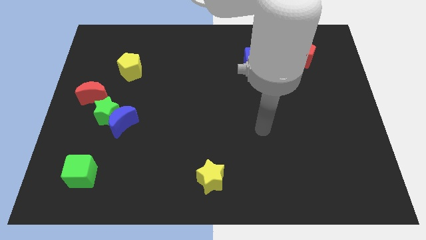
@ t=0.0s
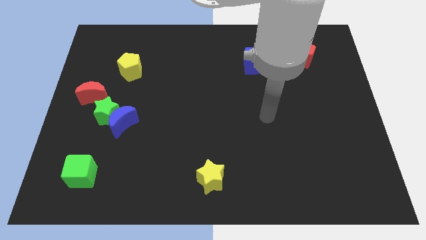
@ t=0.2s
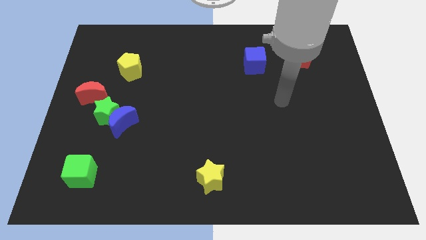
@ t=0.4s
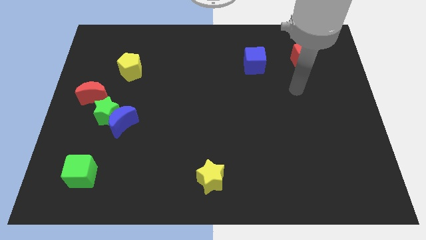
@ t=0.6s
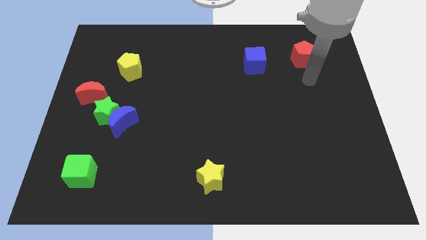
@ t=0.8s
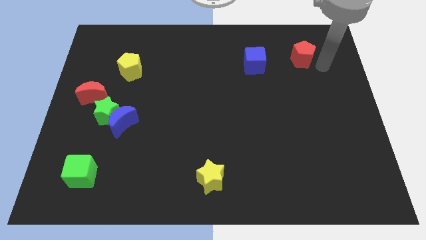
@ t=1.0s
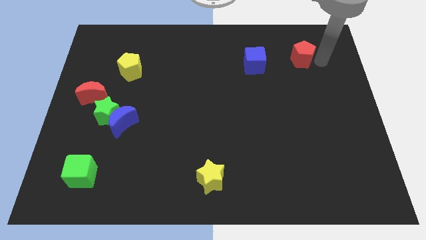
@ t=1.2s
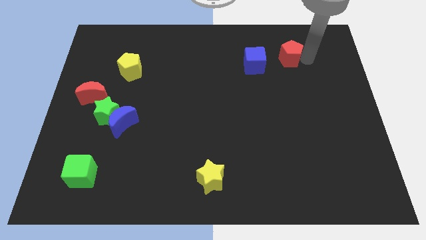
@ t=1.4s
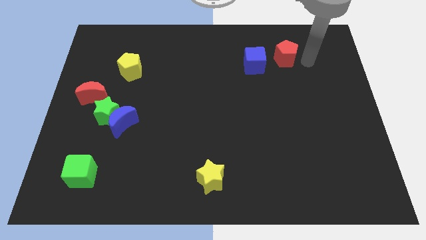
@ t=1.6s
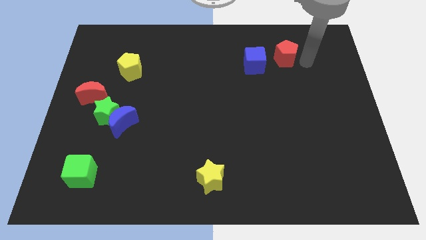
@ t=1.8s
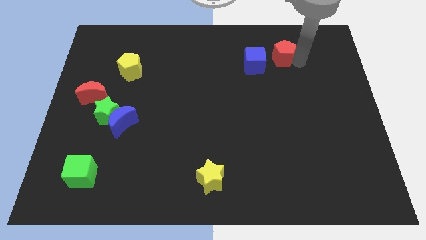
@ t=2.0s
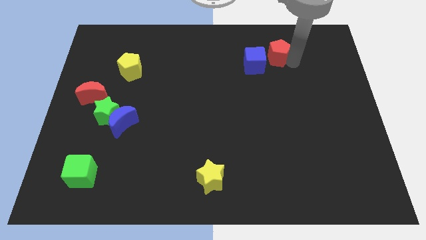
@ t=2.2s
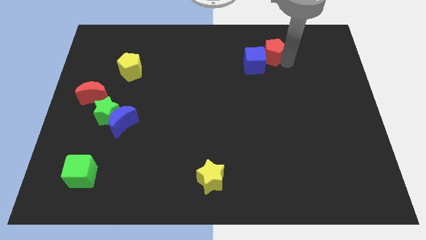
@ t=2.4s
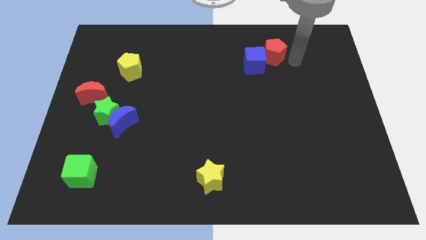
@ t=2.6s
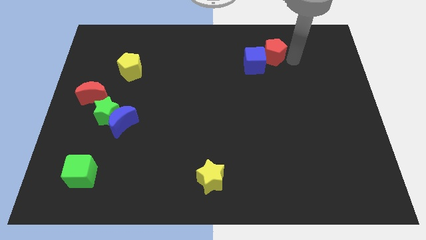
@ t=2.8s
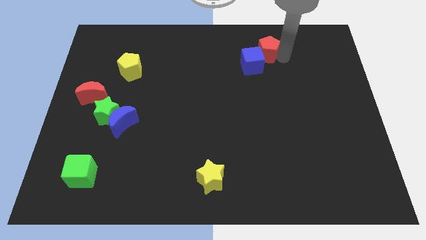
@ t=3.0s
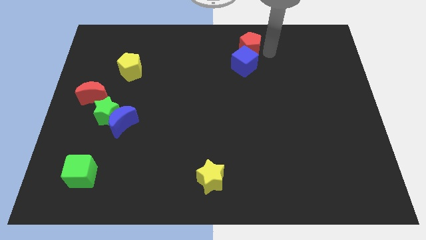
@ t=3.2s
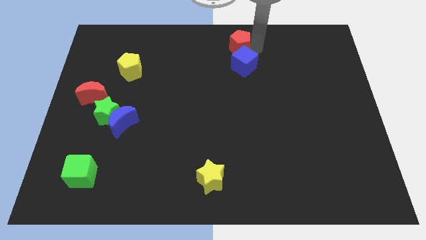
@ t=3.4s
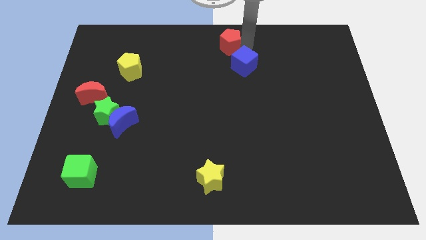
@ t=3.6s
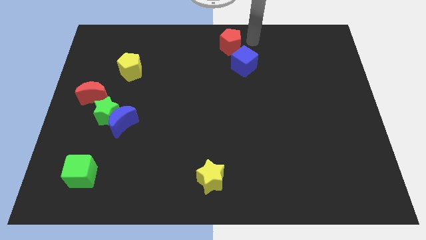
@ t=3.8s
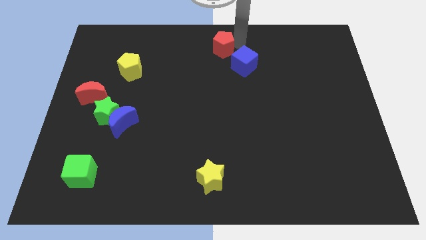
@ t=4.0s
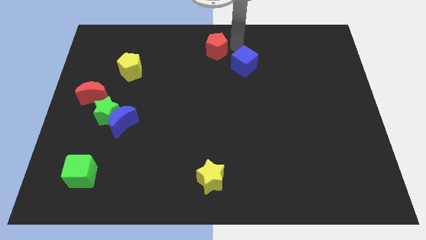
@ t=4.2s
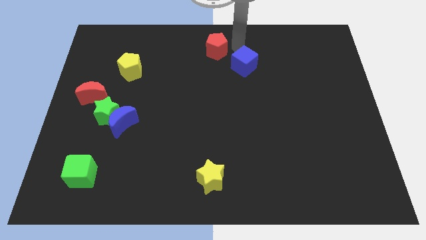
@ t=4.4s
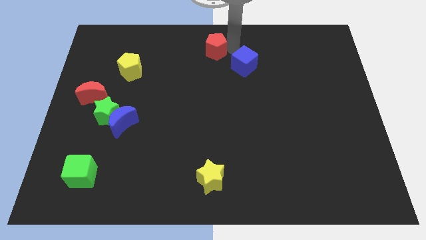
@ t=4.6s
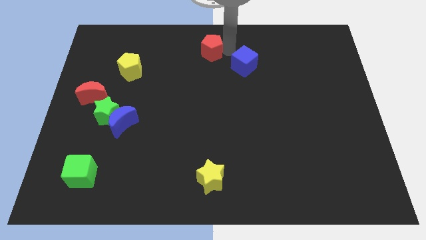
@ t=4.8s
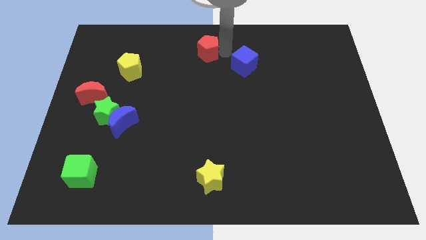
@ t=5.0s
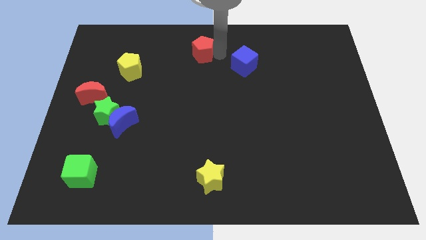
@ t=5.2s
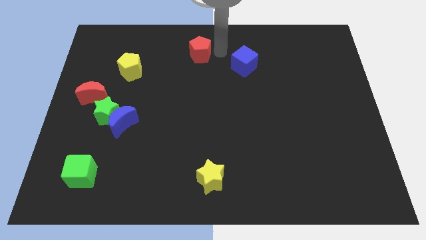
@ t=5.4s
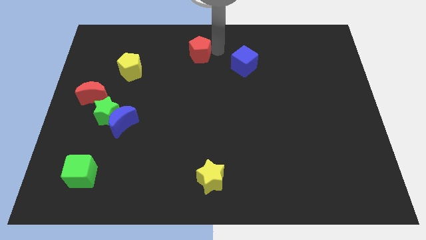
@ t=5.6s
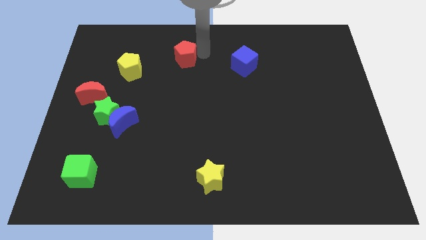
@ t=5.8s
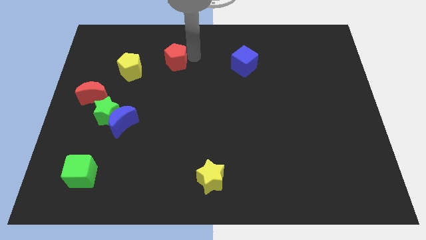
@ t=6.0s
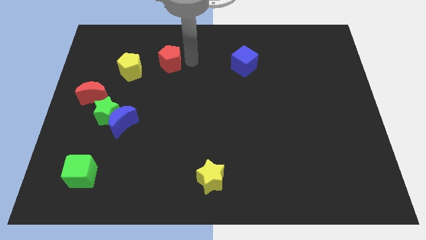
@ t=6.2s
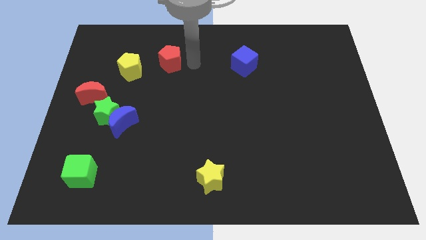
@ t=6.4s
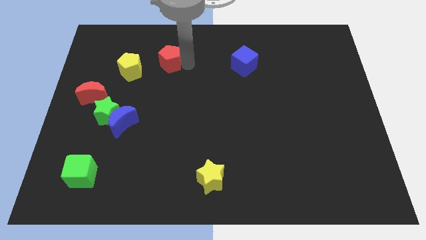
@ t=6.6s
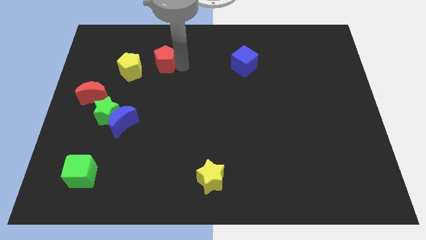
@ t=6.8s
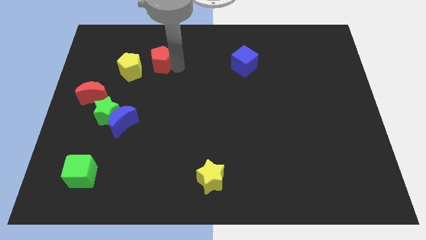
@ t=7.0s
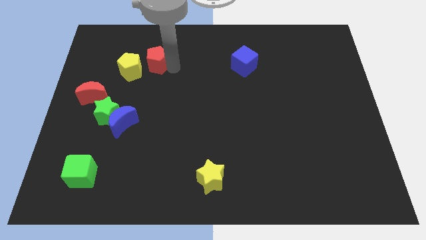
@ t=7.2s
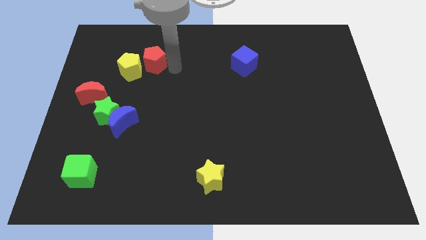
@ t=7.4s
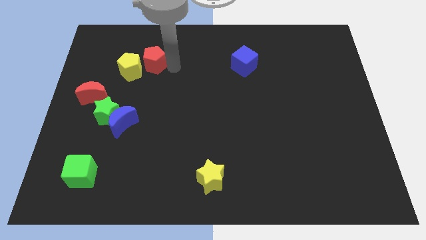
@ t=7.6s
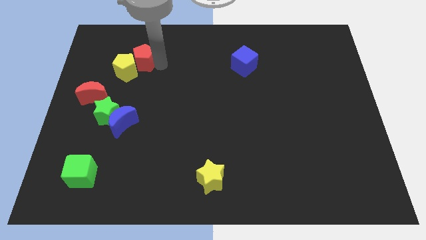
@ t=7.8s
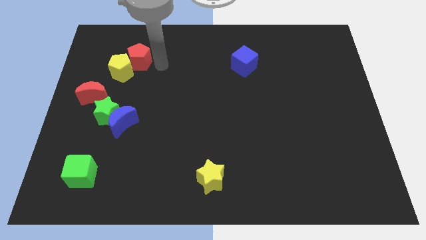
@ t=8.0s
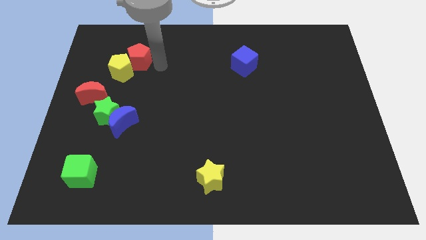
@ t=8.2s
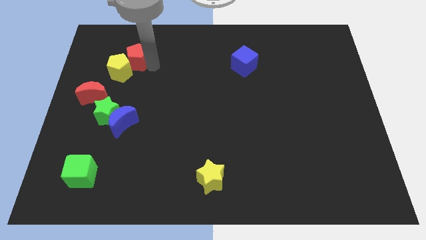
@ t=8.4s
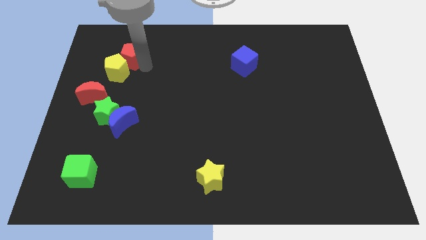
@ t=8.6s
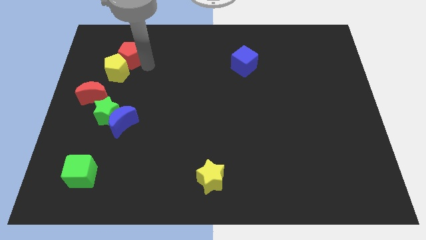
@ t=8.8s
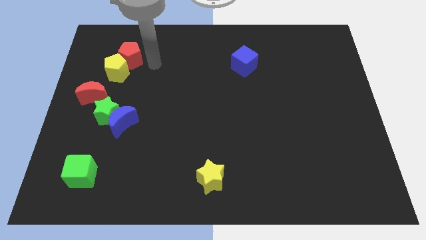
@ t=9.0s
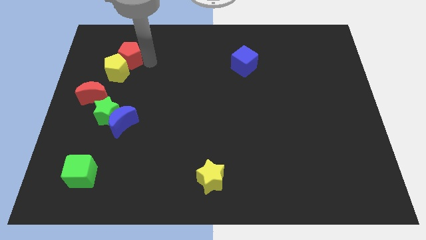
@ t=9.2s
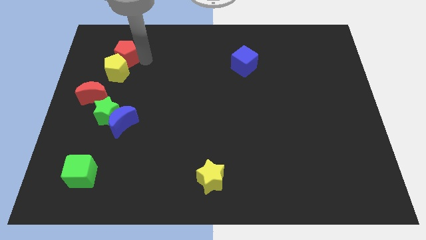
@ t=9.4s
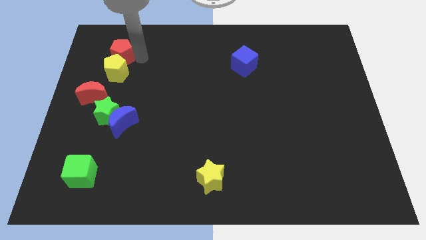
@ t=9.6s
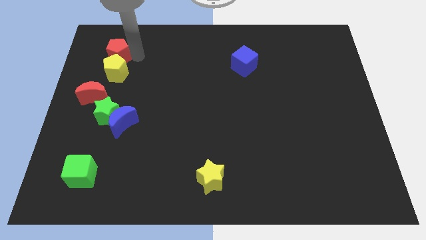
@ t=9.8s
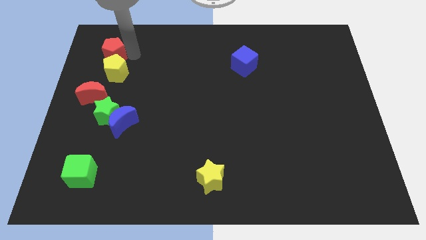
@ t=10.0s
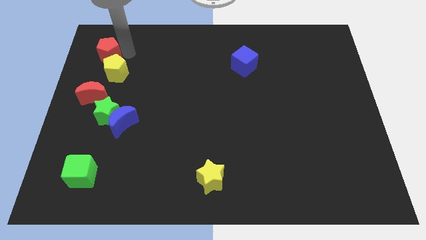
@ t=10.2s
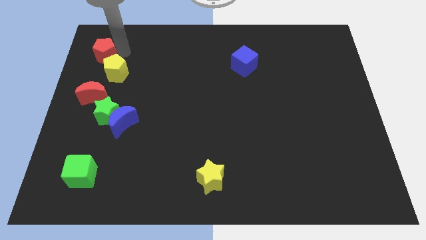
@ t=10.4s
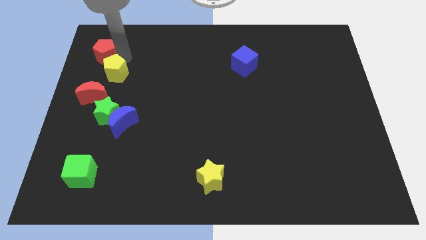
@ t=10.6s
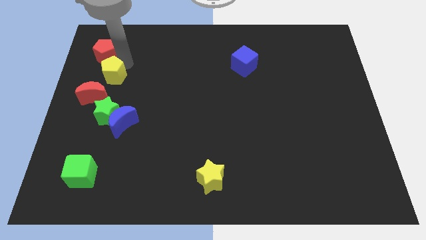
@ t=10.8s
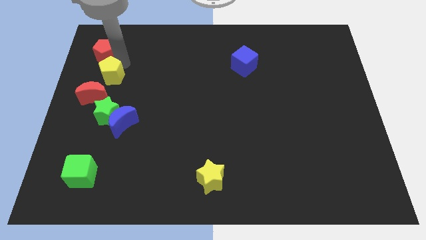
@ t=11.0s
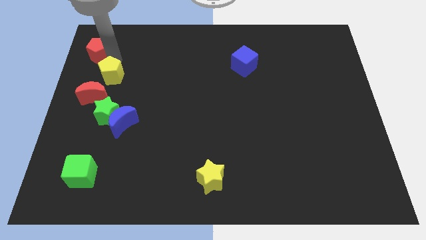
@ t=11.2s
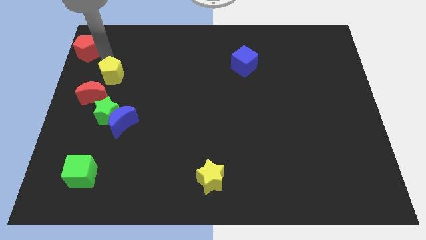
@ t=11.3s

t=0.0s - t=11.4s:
push the red pentagon to the top left of the board
